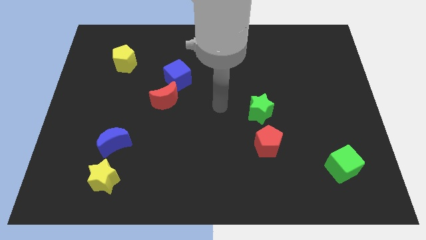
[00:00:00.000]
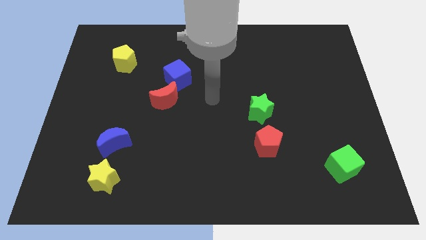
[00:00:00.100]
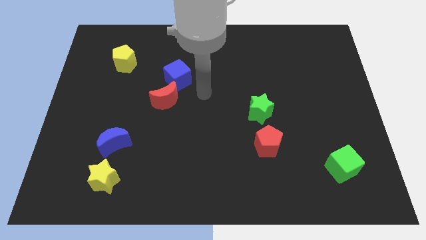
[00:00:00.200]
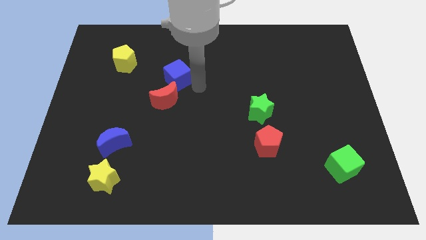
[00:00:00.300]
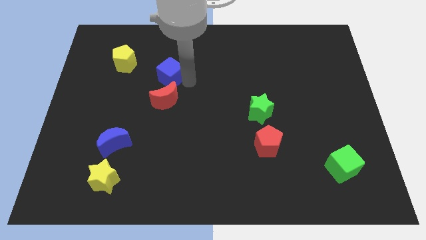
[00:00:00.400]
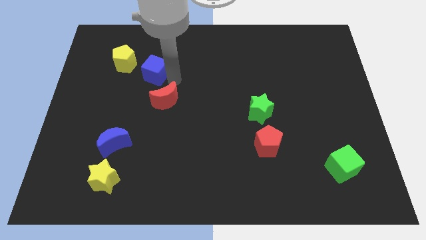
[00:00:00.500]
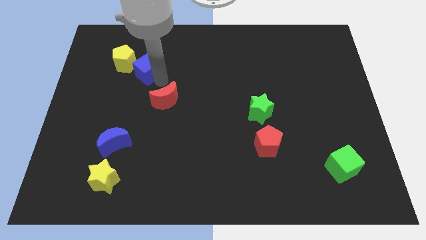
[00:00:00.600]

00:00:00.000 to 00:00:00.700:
separate the red moon from the blue cube

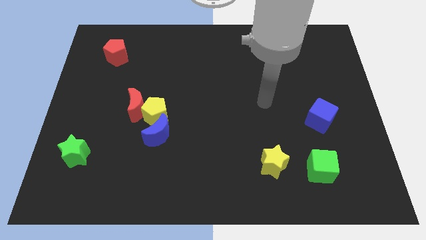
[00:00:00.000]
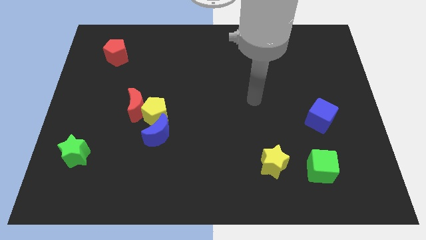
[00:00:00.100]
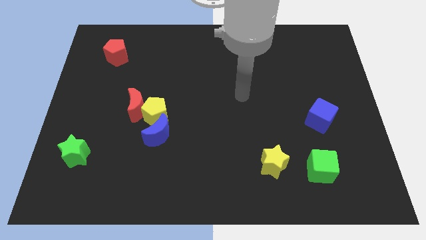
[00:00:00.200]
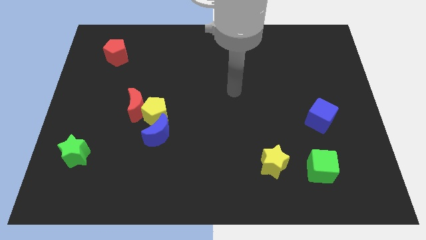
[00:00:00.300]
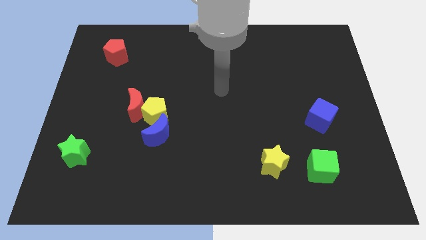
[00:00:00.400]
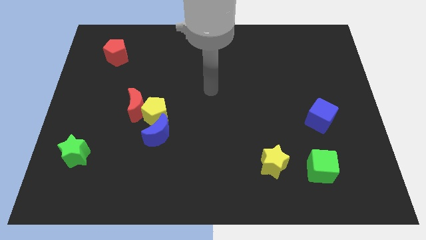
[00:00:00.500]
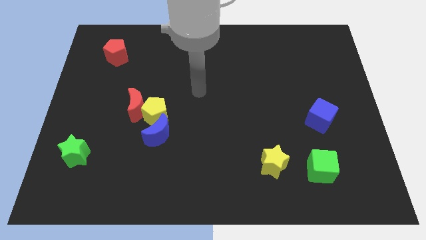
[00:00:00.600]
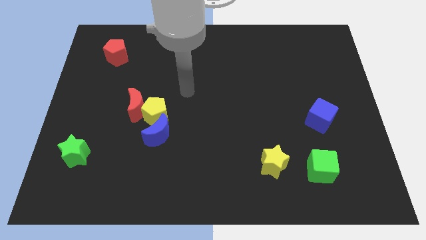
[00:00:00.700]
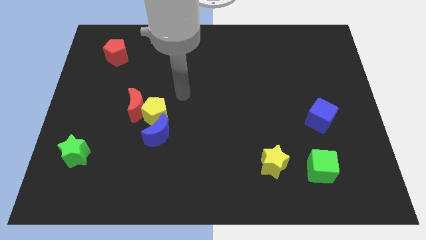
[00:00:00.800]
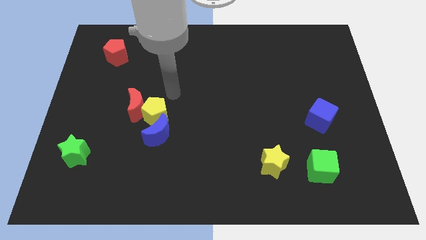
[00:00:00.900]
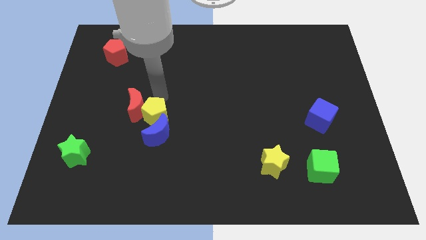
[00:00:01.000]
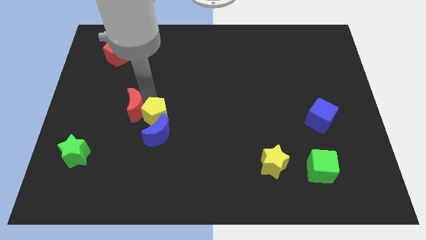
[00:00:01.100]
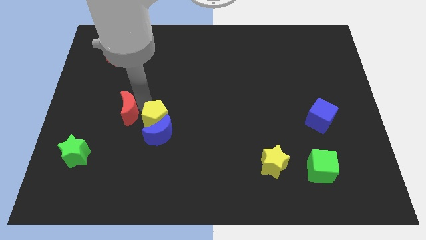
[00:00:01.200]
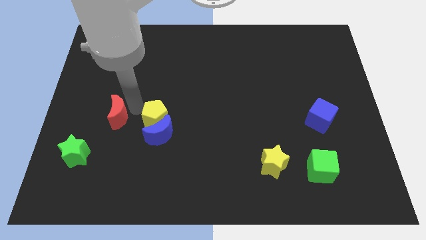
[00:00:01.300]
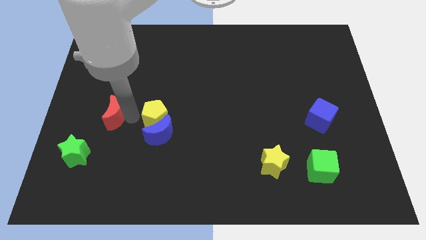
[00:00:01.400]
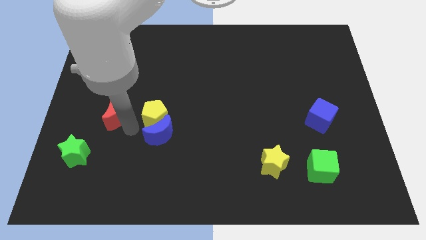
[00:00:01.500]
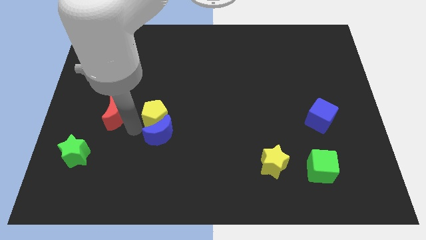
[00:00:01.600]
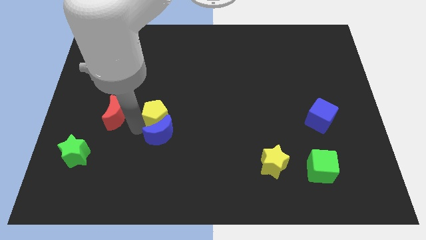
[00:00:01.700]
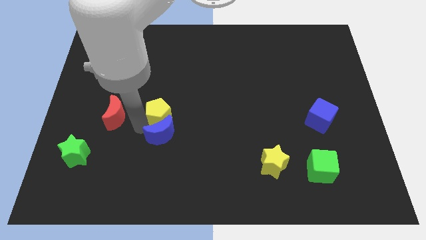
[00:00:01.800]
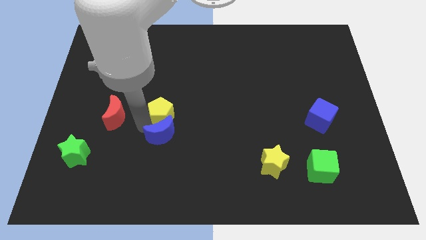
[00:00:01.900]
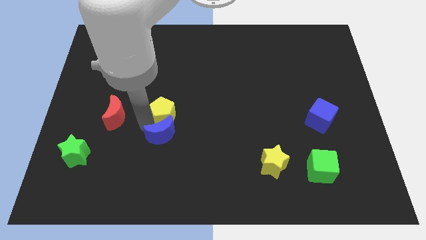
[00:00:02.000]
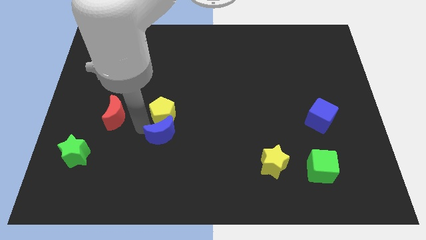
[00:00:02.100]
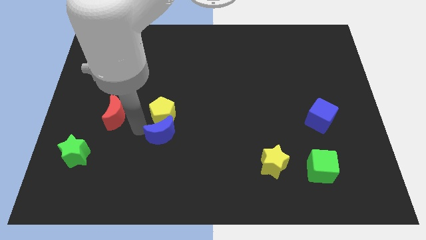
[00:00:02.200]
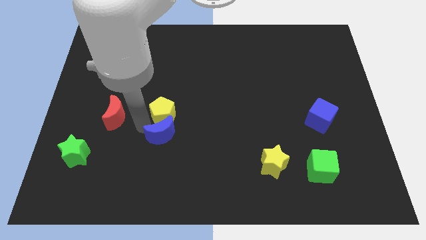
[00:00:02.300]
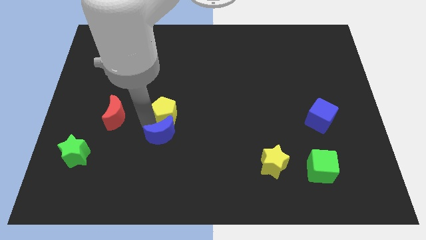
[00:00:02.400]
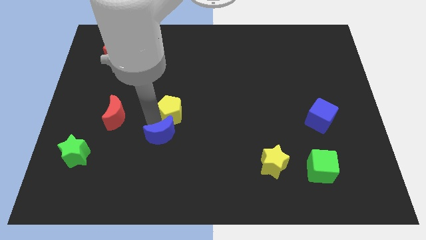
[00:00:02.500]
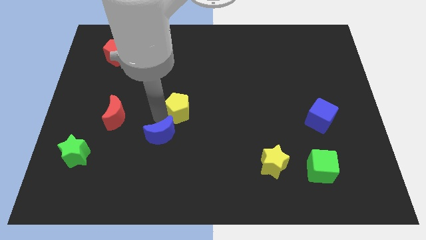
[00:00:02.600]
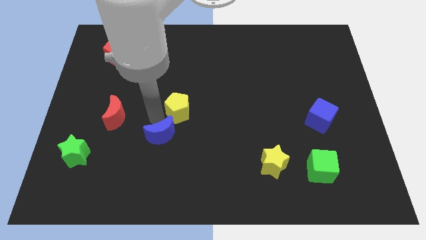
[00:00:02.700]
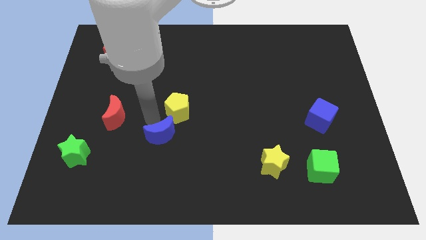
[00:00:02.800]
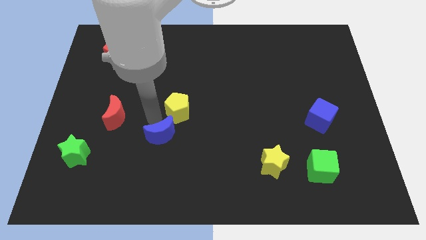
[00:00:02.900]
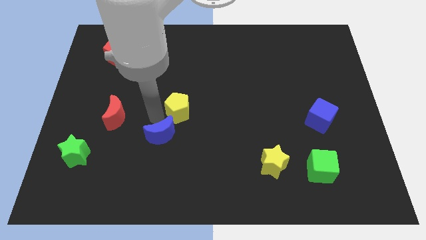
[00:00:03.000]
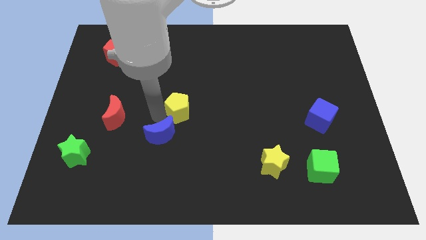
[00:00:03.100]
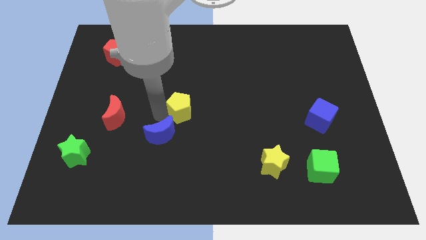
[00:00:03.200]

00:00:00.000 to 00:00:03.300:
move the yellow pentagon away from the red moon and blue moon

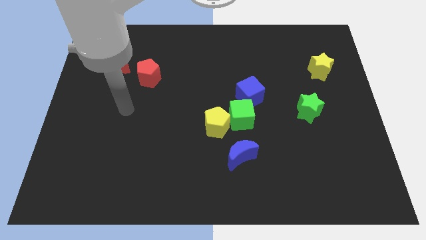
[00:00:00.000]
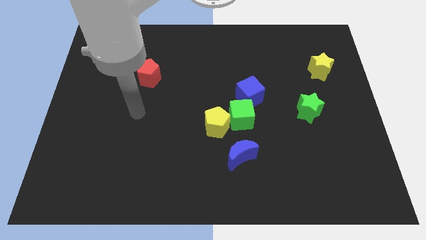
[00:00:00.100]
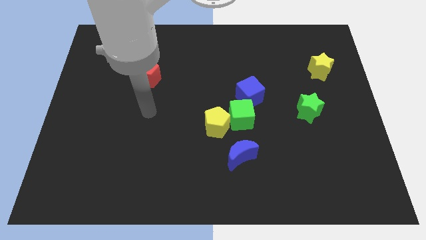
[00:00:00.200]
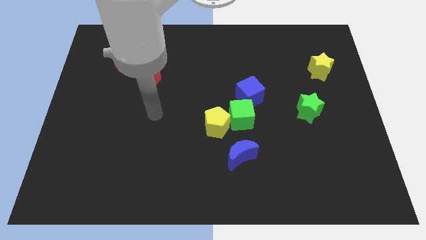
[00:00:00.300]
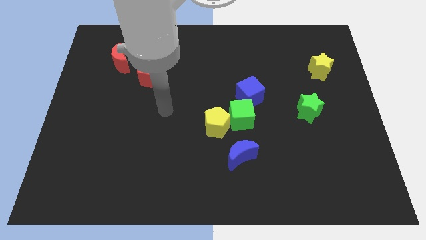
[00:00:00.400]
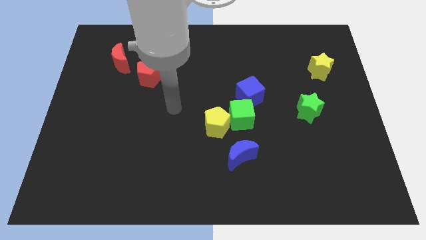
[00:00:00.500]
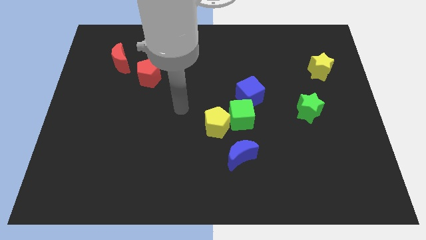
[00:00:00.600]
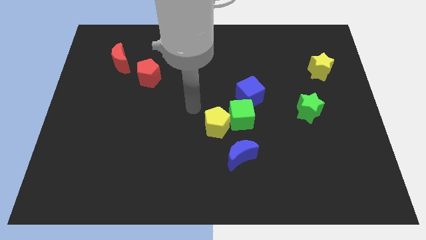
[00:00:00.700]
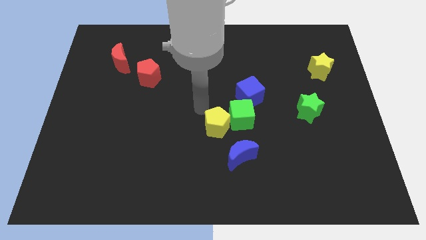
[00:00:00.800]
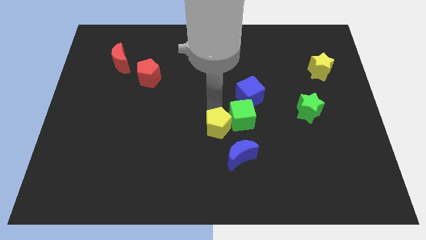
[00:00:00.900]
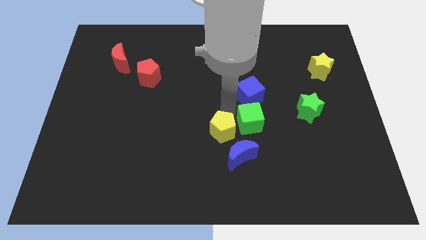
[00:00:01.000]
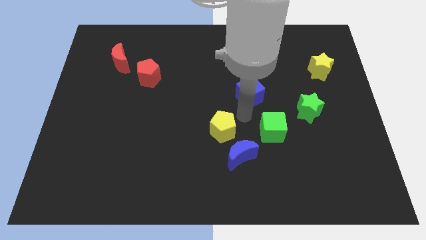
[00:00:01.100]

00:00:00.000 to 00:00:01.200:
move the blue cube away from the green cube

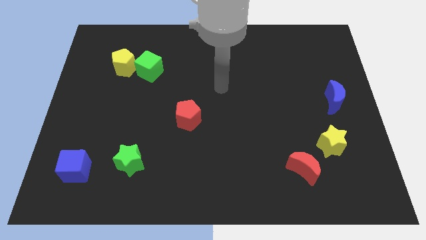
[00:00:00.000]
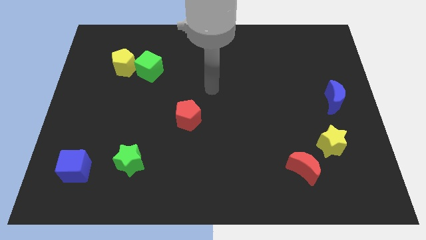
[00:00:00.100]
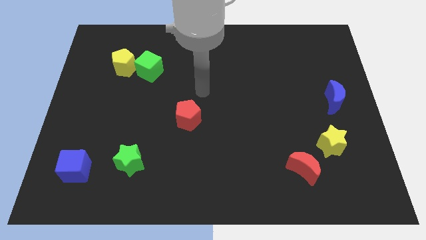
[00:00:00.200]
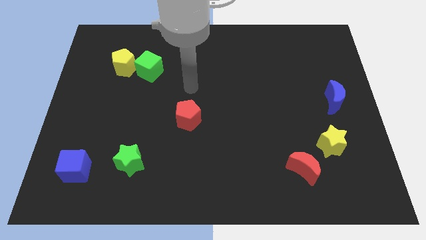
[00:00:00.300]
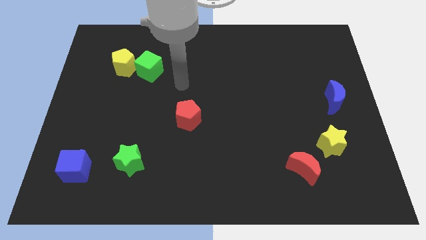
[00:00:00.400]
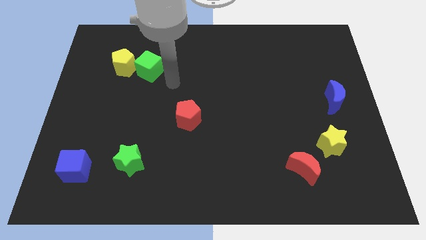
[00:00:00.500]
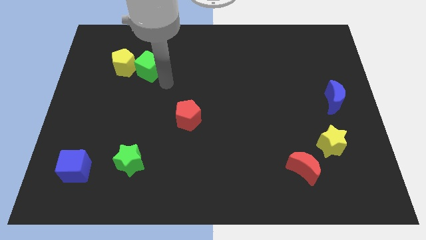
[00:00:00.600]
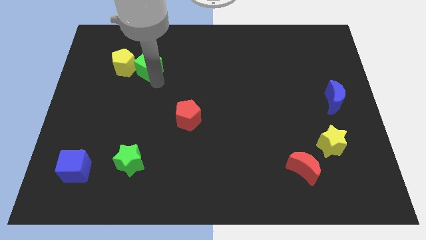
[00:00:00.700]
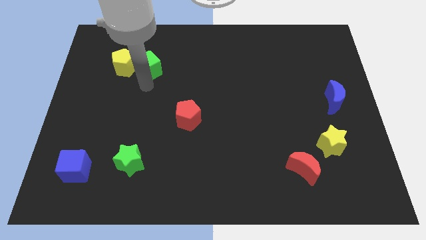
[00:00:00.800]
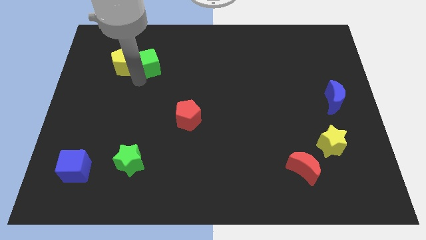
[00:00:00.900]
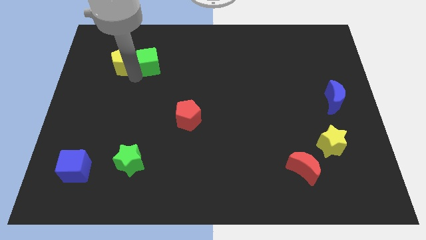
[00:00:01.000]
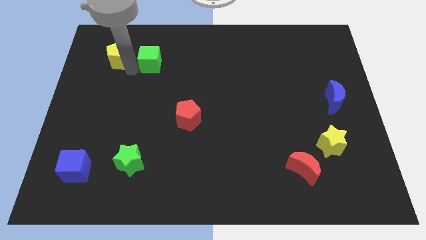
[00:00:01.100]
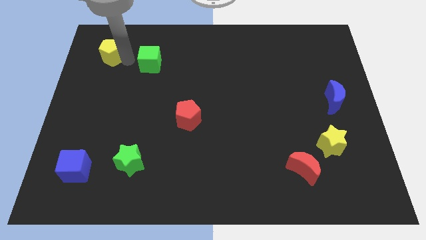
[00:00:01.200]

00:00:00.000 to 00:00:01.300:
pull the green cube apart from the yellow pentagon

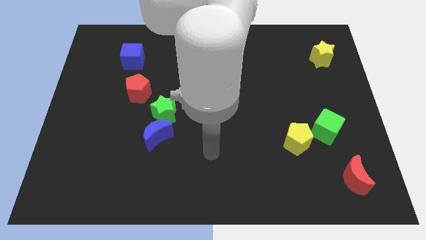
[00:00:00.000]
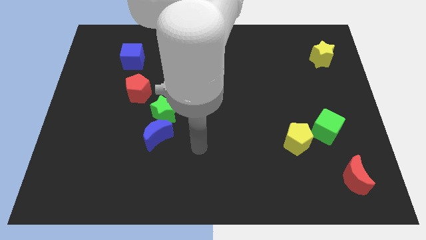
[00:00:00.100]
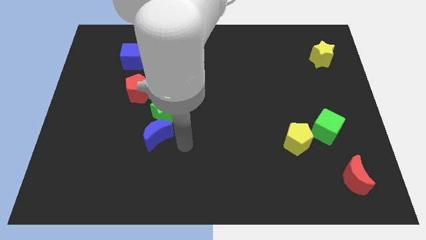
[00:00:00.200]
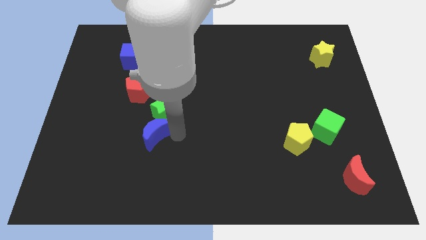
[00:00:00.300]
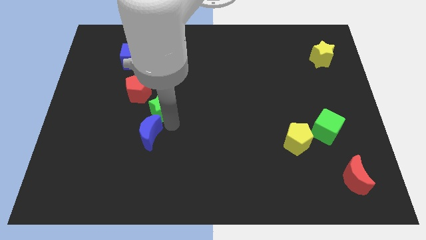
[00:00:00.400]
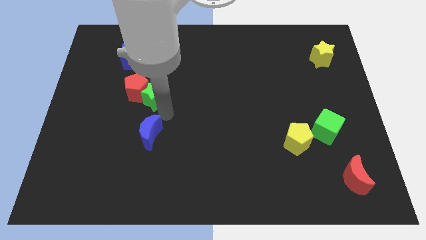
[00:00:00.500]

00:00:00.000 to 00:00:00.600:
separate the blue moon from the green star

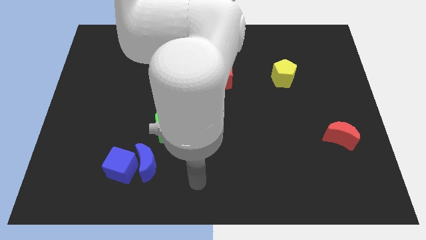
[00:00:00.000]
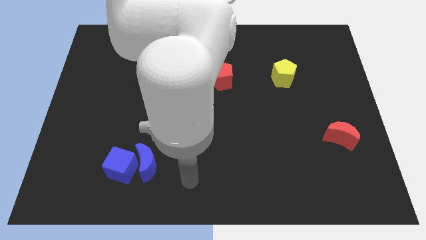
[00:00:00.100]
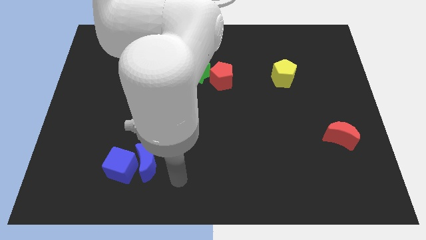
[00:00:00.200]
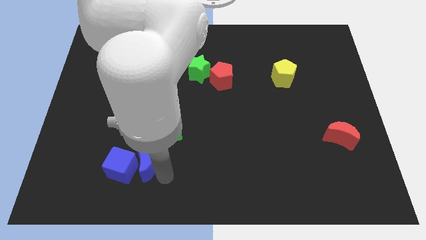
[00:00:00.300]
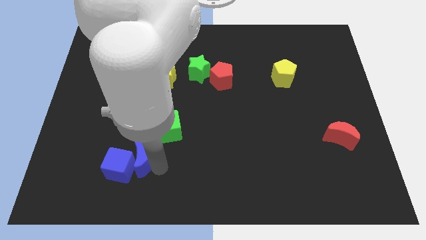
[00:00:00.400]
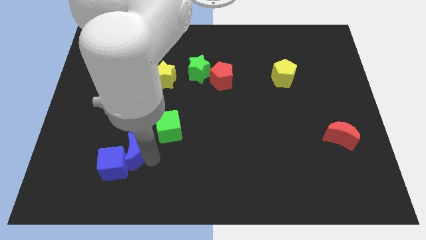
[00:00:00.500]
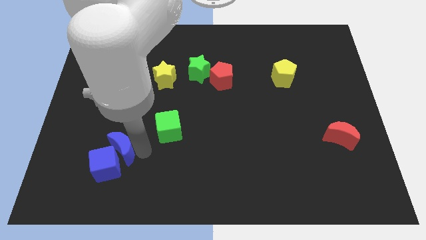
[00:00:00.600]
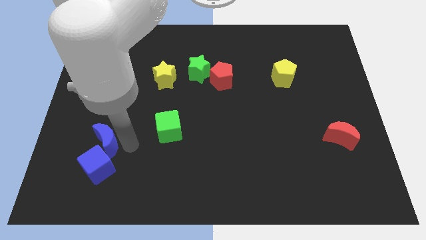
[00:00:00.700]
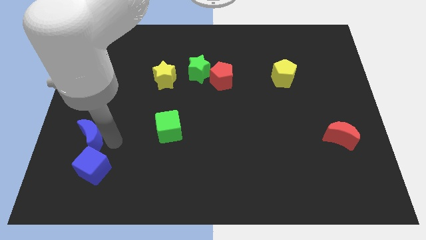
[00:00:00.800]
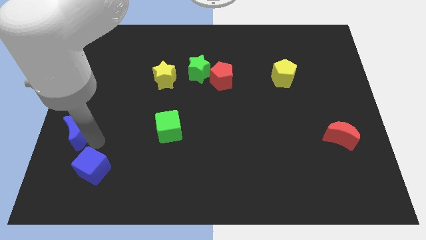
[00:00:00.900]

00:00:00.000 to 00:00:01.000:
pull the blue cube apart from the blue moon

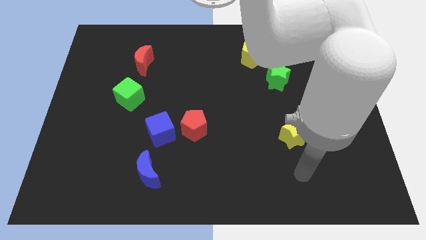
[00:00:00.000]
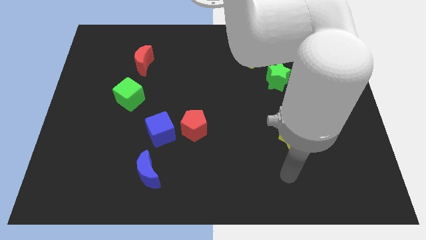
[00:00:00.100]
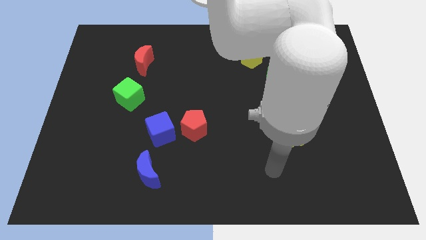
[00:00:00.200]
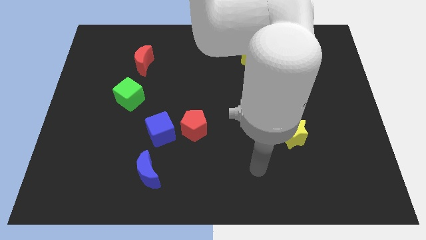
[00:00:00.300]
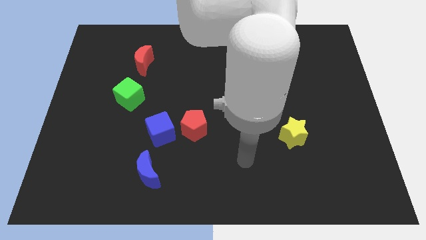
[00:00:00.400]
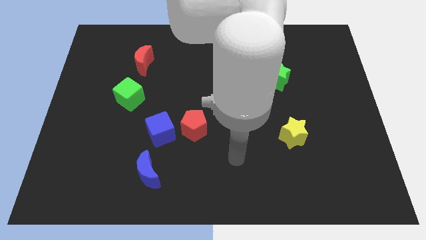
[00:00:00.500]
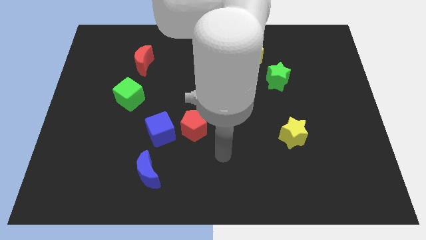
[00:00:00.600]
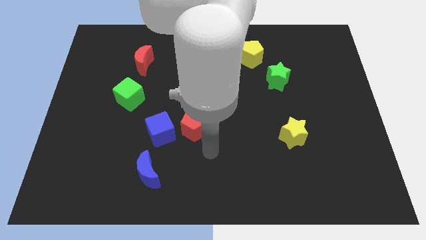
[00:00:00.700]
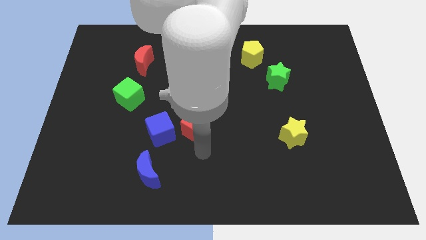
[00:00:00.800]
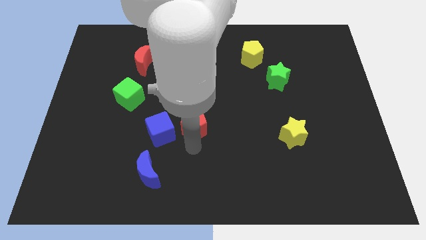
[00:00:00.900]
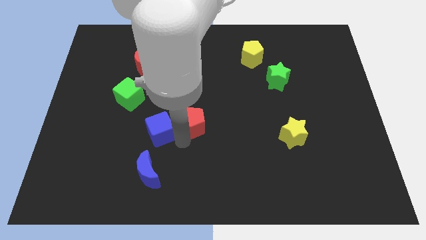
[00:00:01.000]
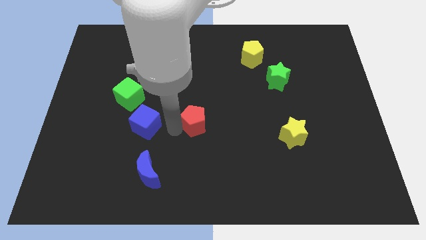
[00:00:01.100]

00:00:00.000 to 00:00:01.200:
pull the red pentagon apart from the blue cube
